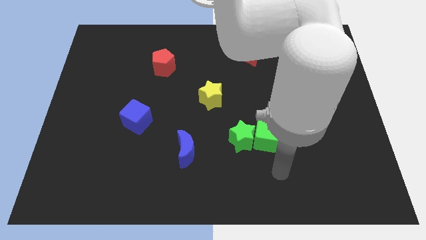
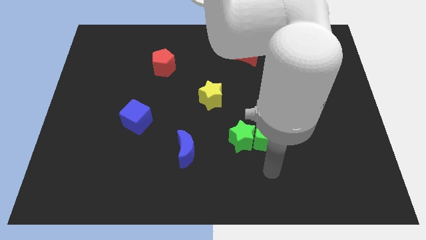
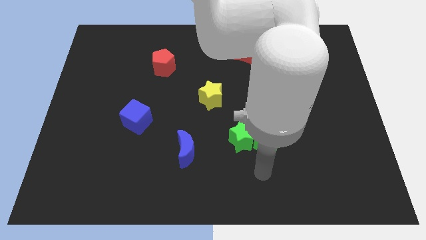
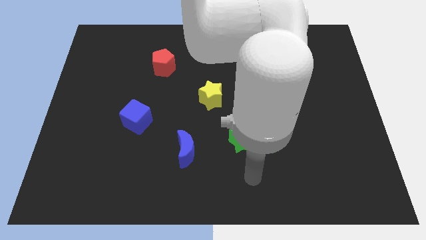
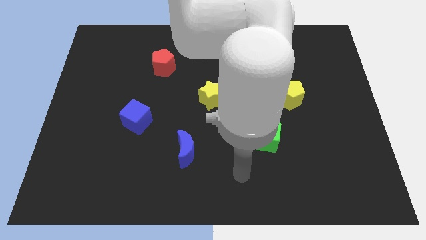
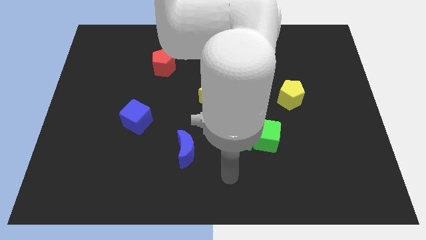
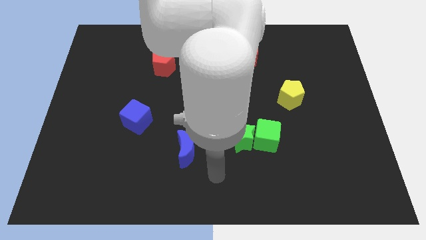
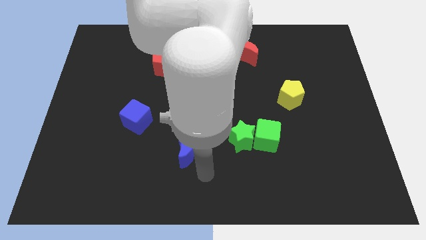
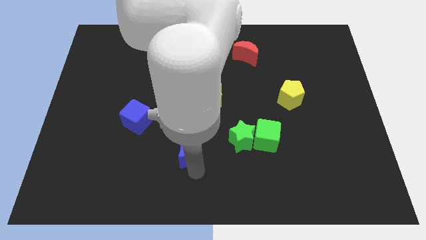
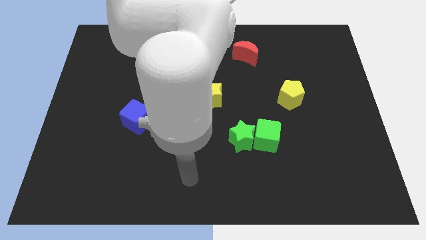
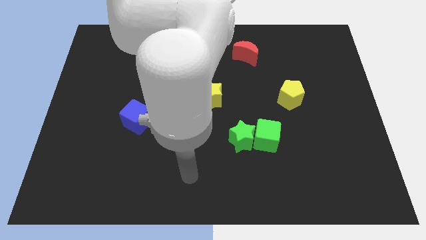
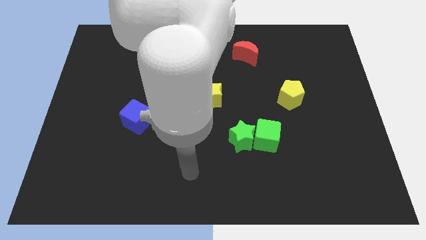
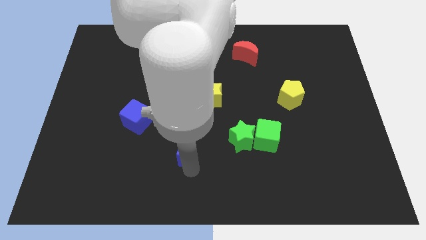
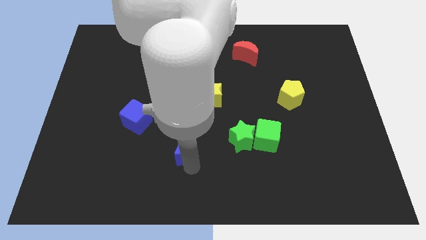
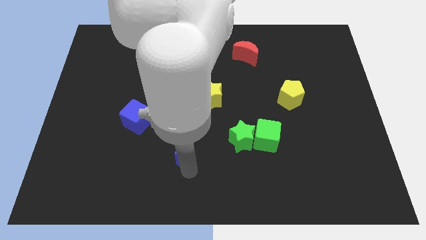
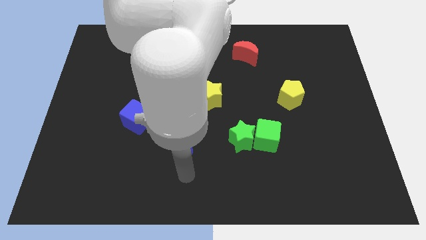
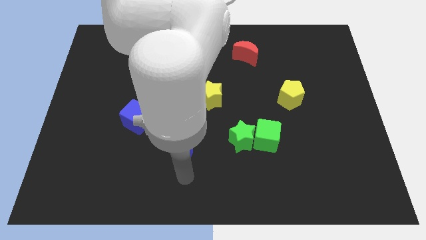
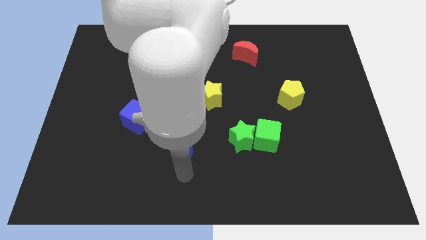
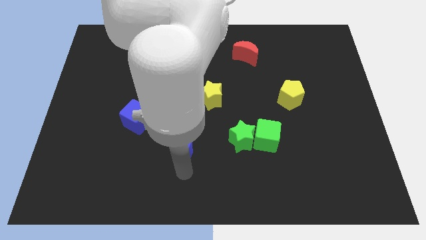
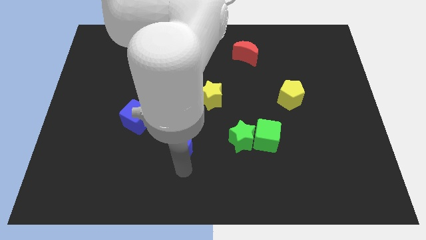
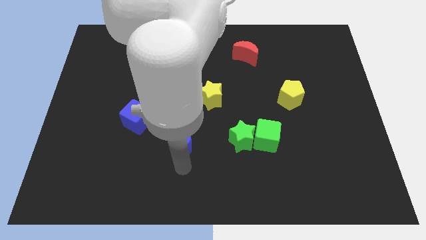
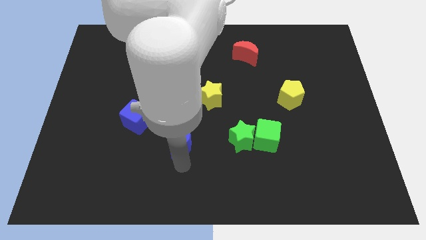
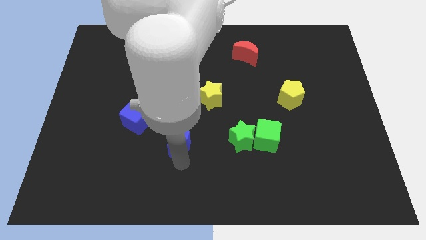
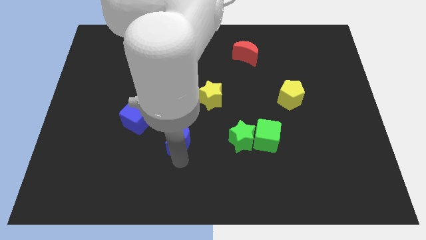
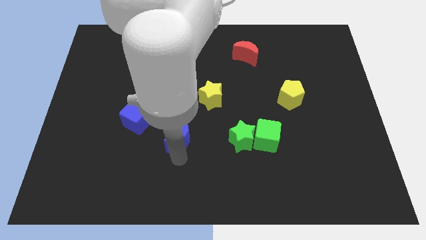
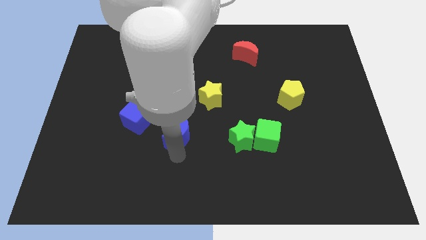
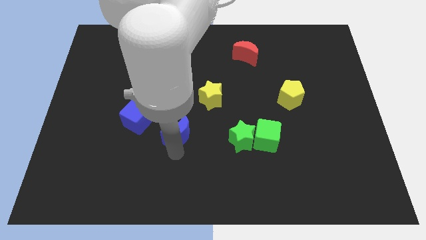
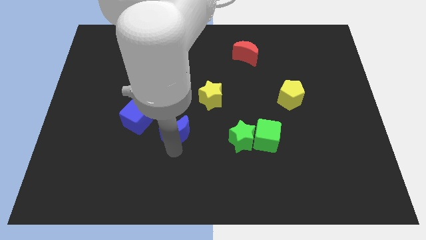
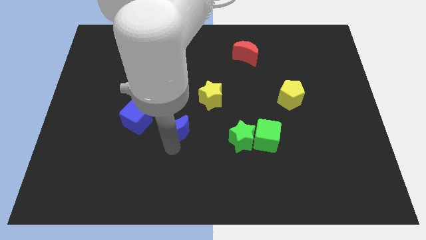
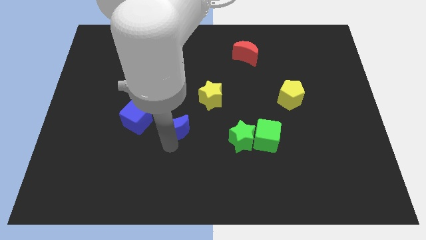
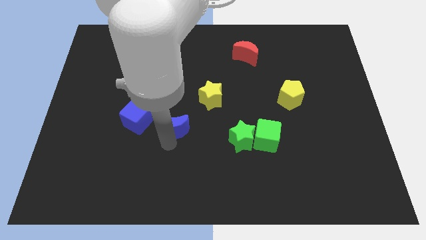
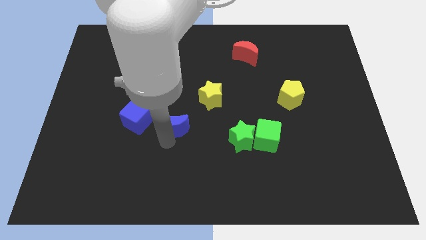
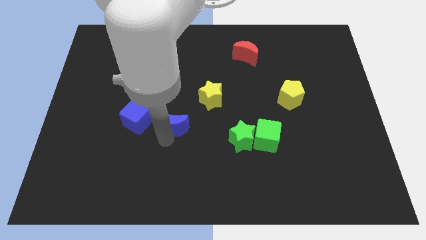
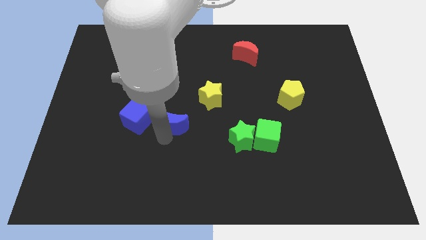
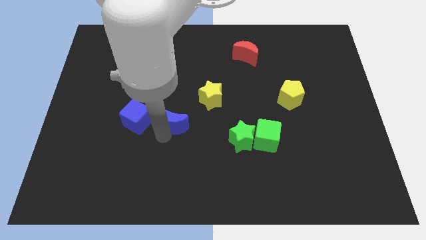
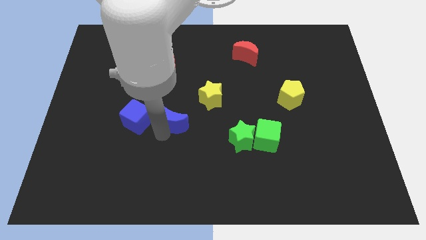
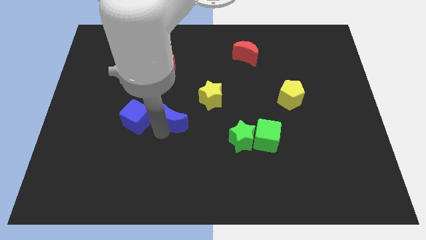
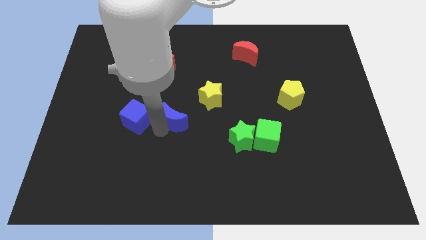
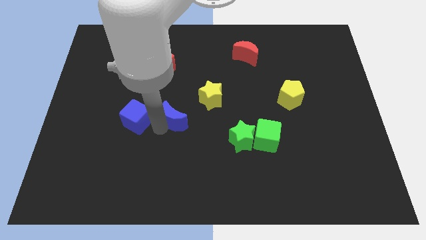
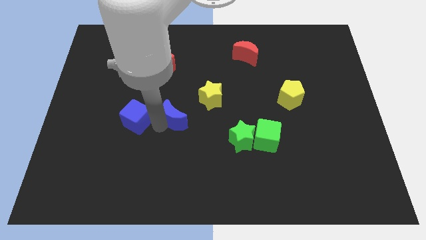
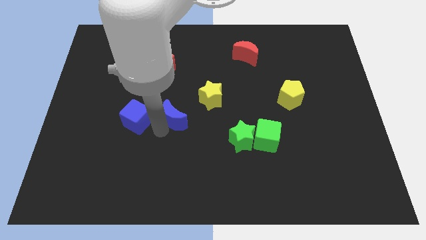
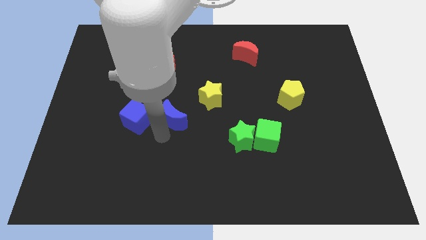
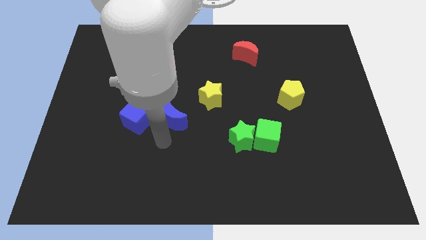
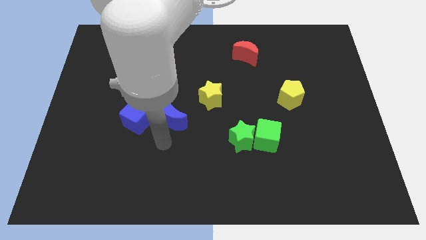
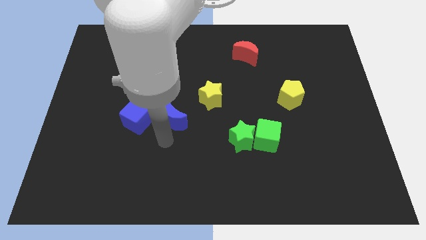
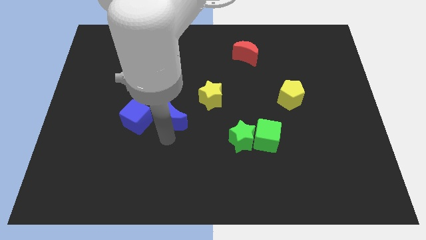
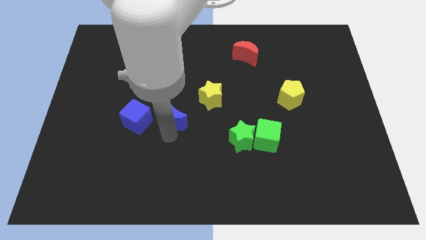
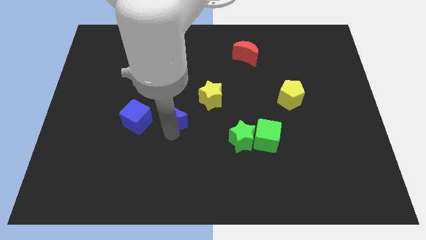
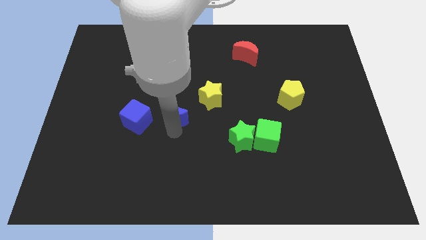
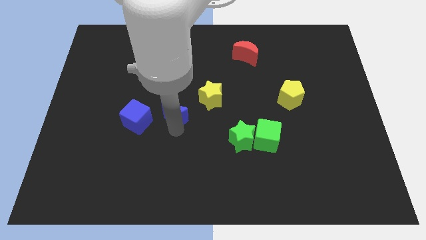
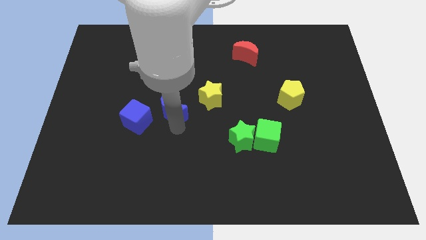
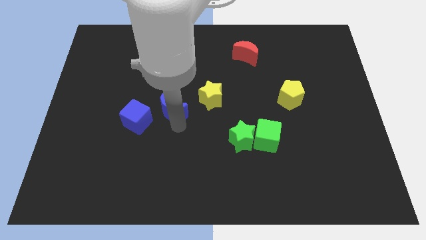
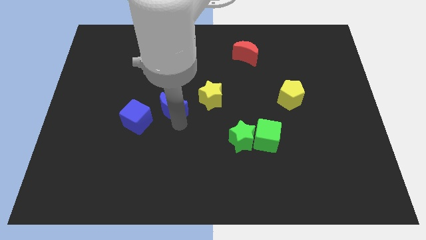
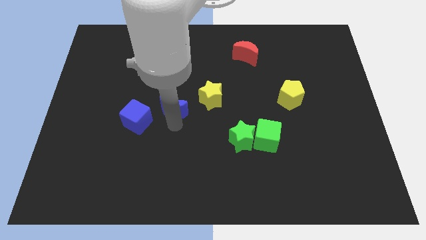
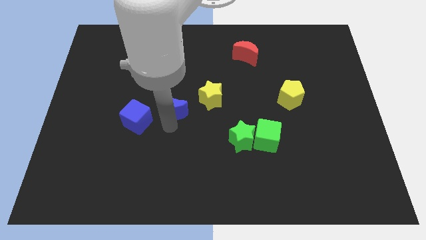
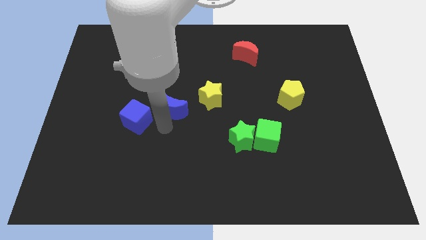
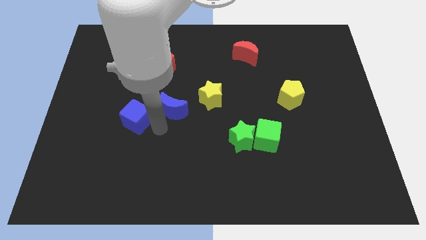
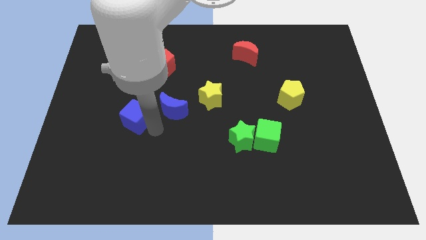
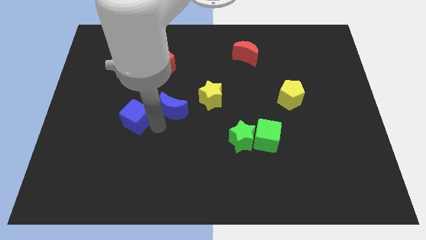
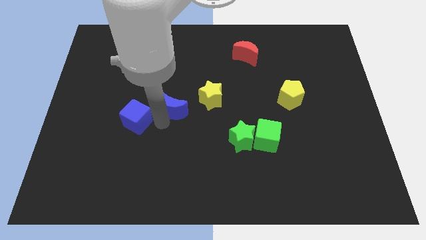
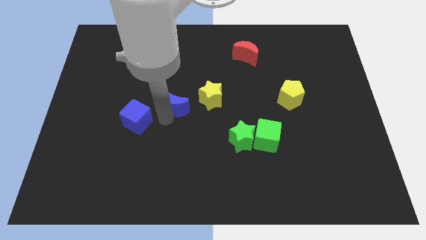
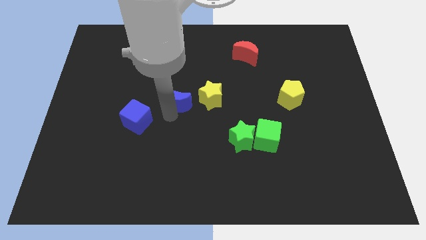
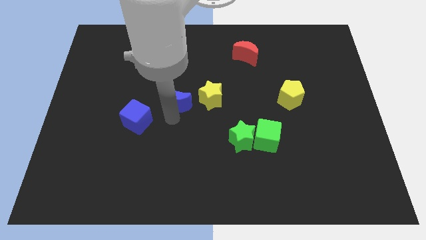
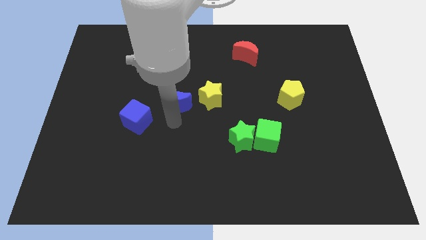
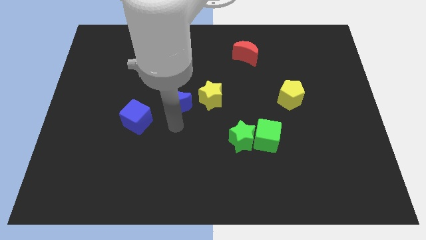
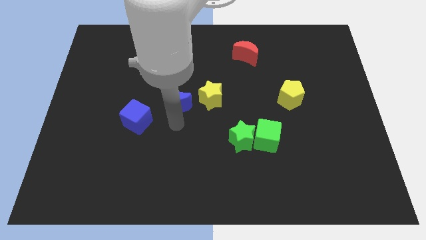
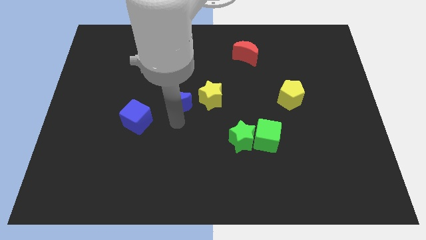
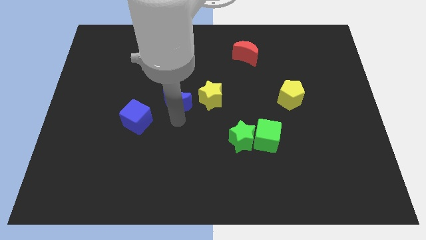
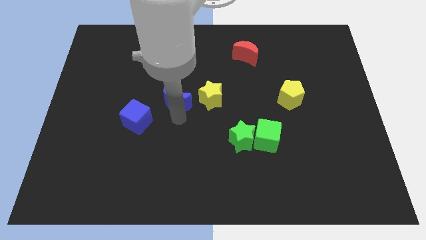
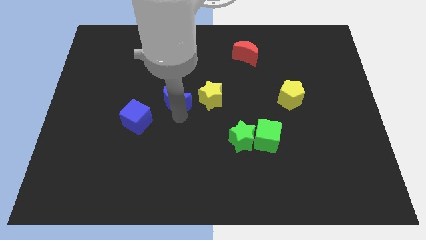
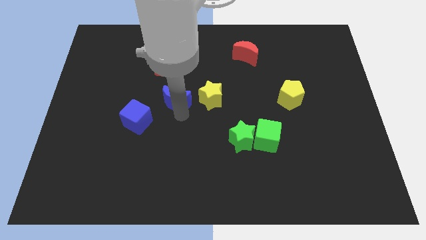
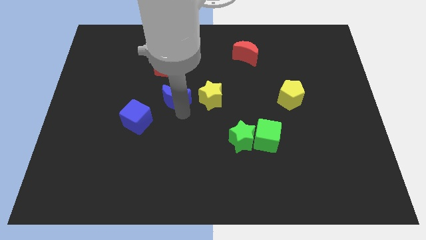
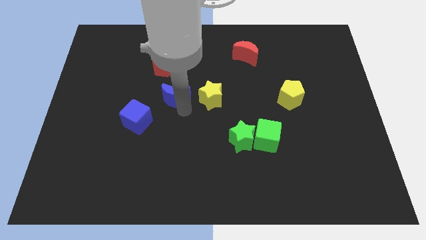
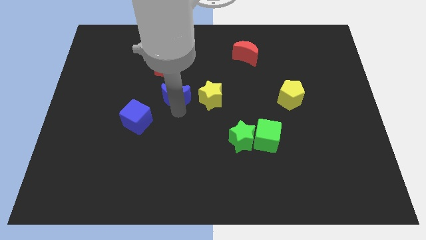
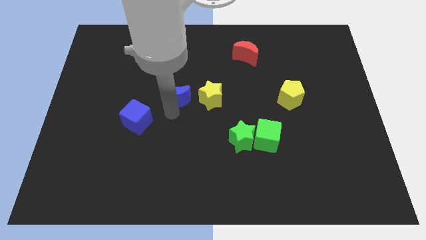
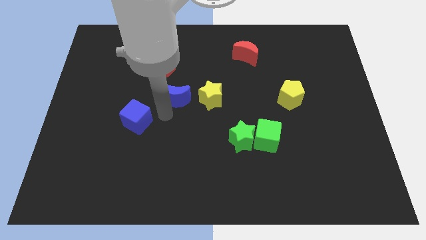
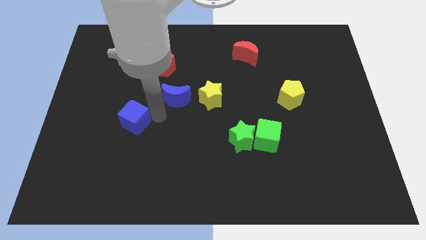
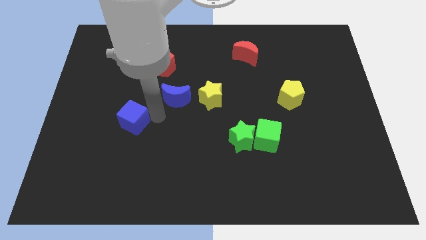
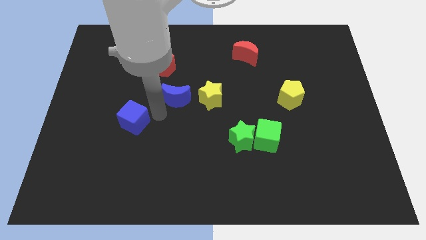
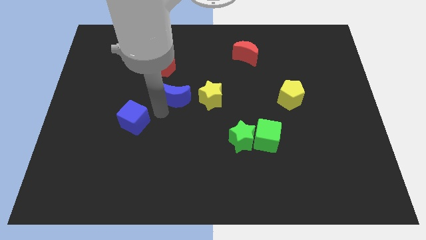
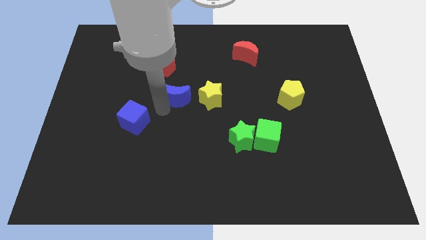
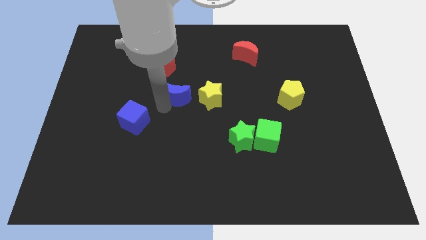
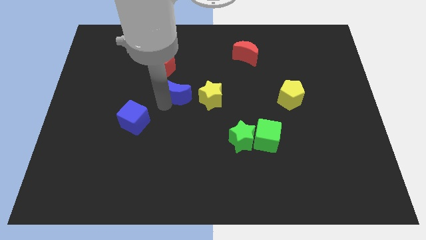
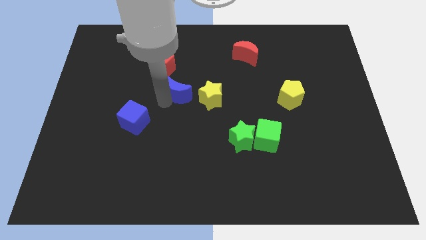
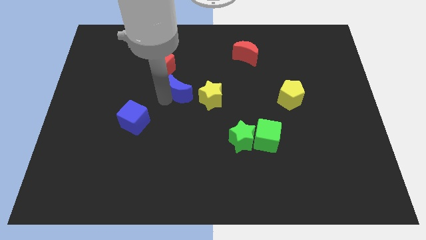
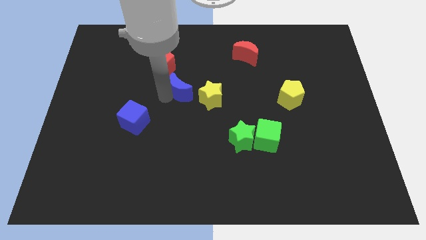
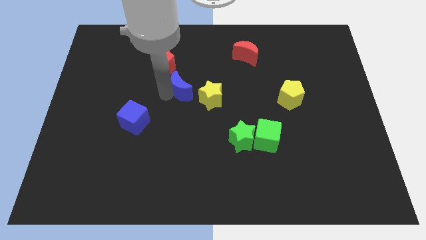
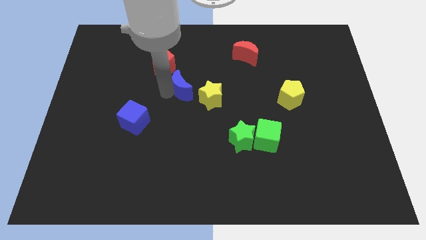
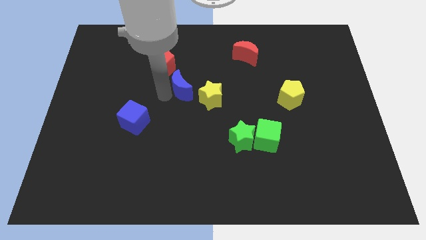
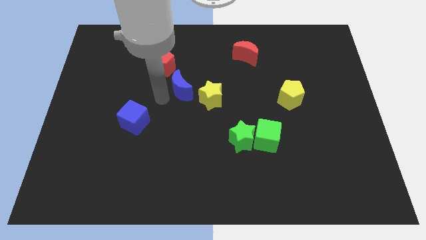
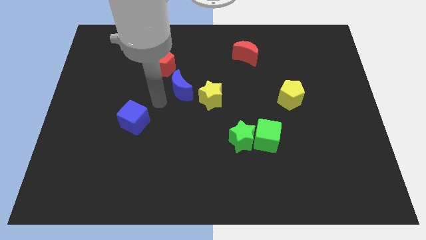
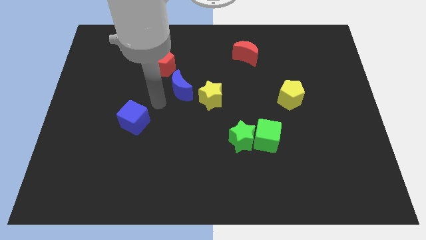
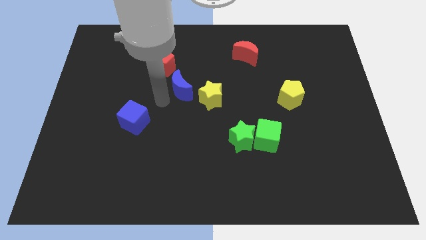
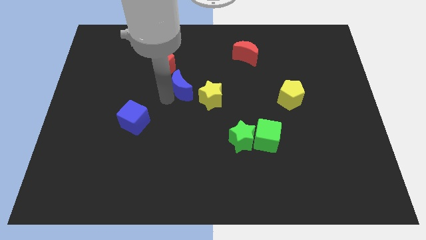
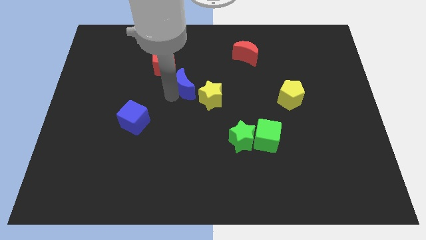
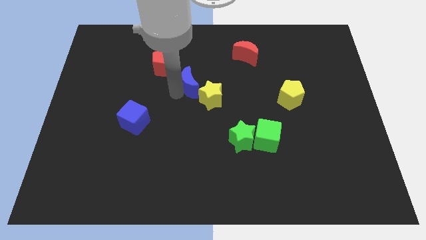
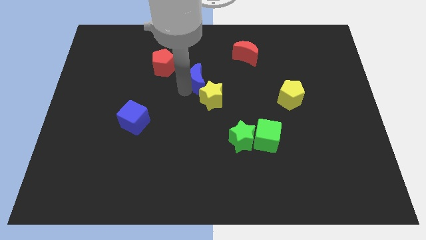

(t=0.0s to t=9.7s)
push the blue moon to the top side of the yellow star
